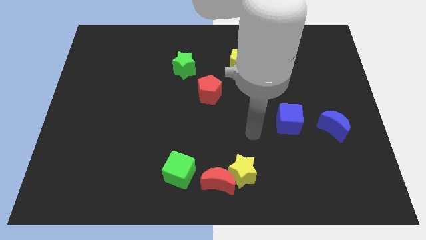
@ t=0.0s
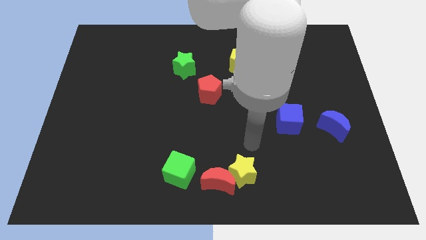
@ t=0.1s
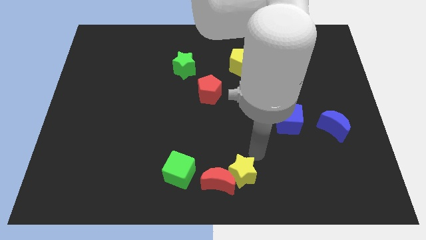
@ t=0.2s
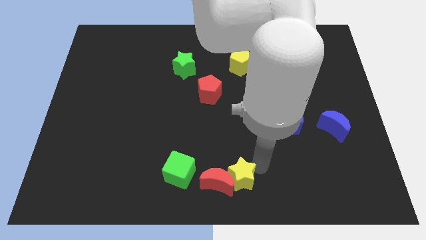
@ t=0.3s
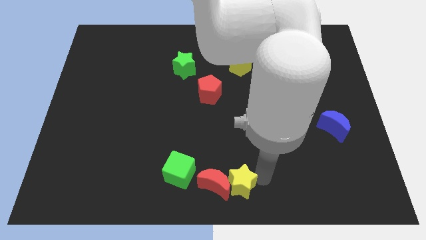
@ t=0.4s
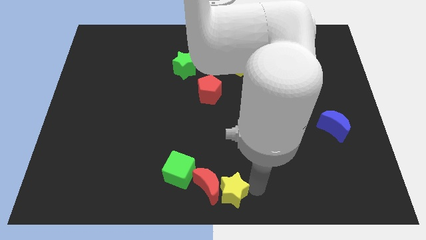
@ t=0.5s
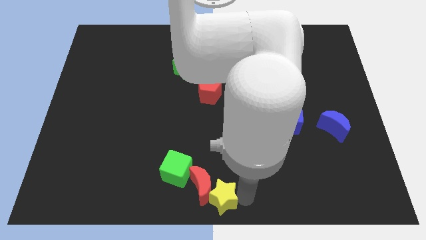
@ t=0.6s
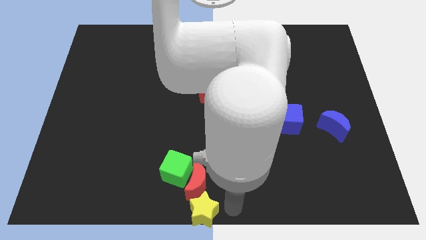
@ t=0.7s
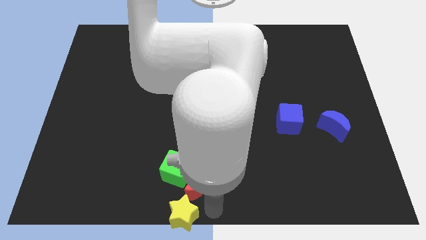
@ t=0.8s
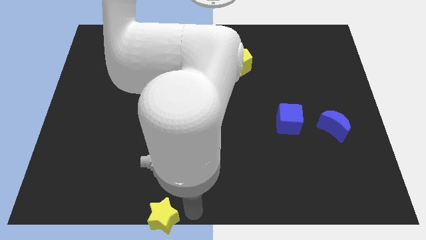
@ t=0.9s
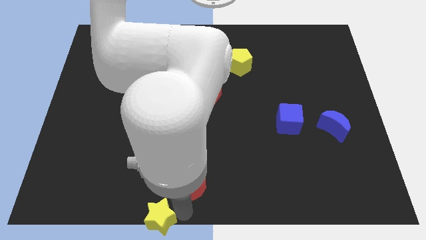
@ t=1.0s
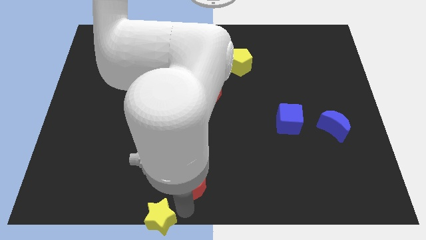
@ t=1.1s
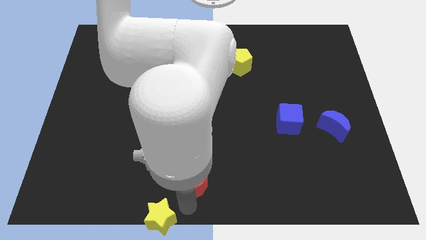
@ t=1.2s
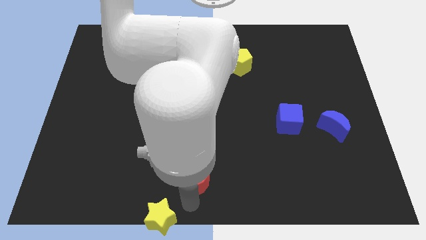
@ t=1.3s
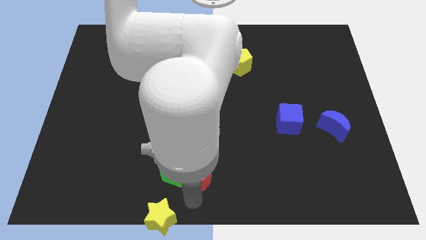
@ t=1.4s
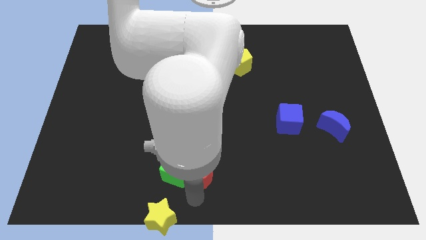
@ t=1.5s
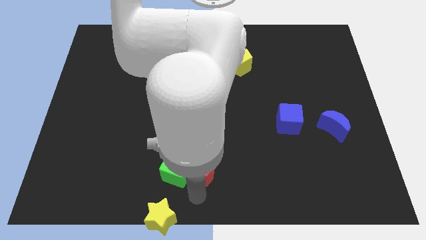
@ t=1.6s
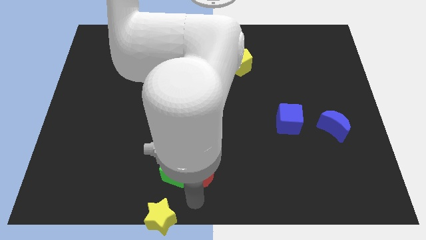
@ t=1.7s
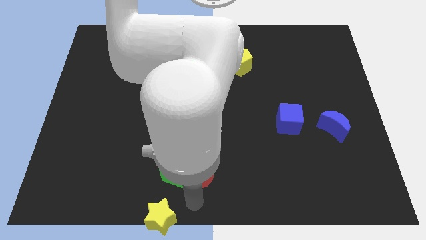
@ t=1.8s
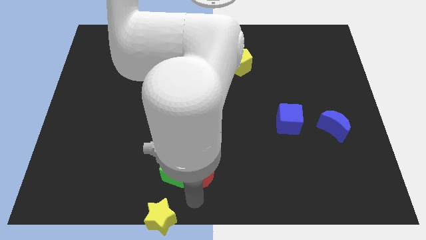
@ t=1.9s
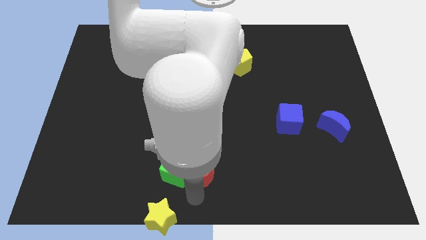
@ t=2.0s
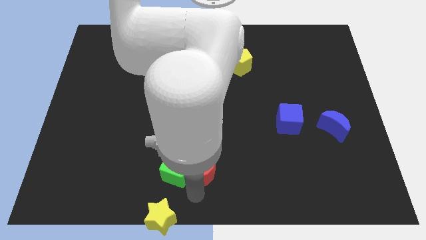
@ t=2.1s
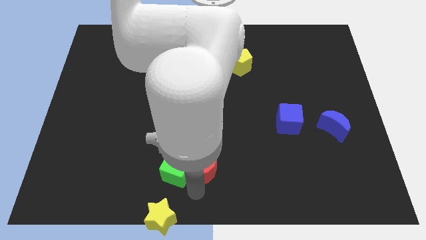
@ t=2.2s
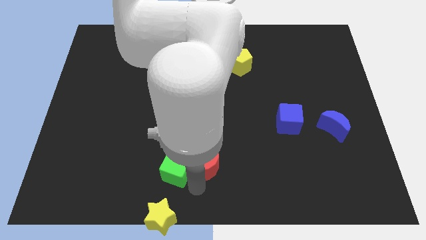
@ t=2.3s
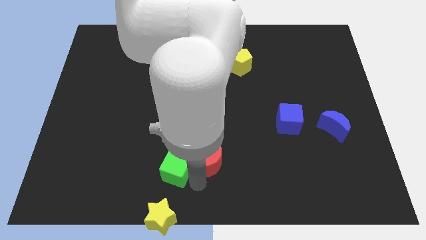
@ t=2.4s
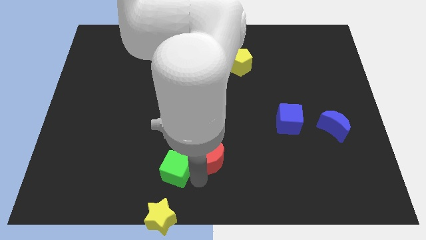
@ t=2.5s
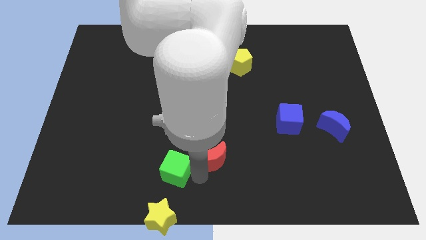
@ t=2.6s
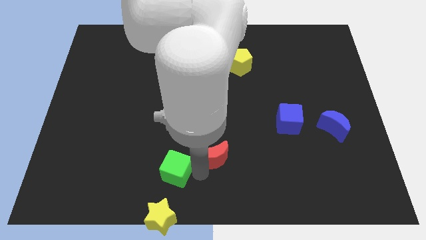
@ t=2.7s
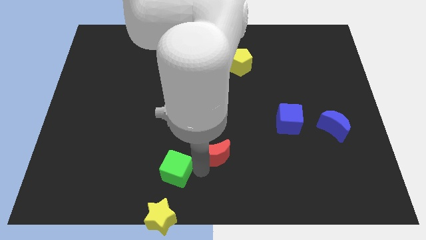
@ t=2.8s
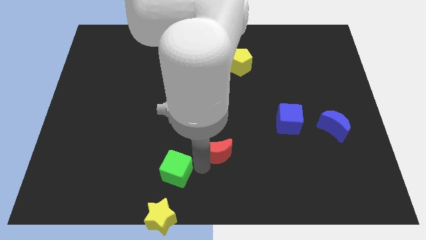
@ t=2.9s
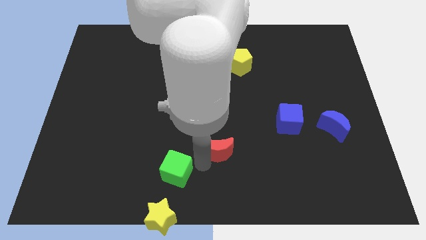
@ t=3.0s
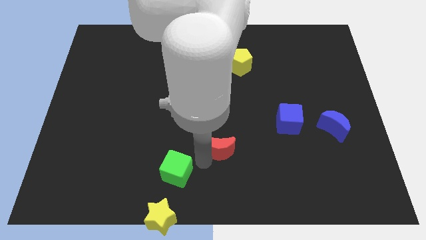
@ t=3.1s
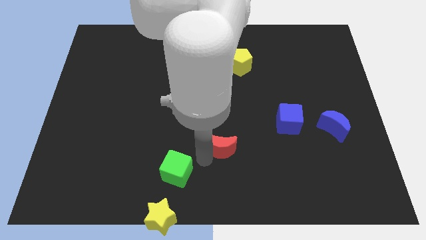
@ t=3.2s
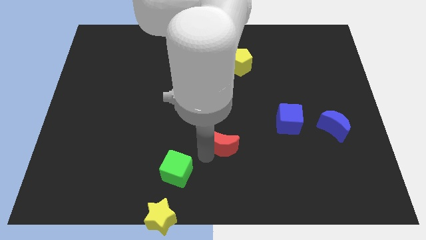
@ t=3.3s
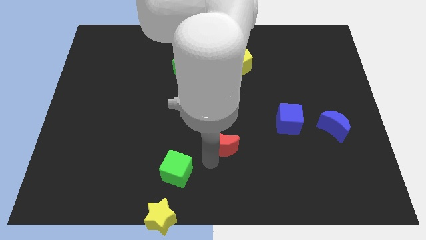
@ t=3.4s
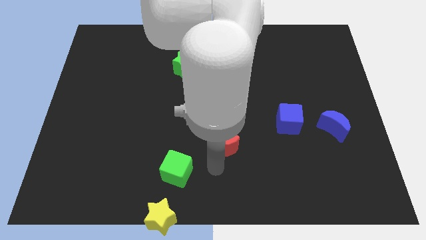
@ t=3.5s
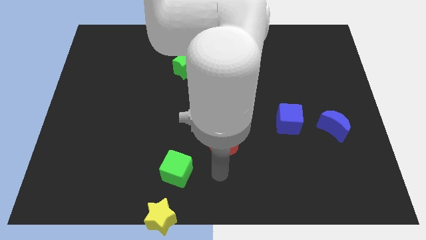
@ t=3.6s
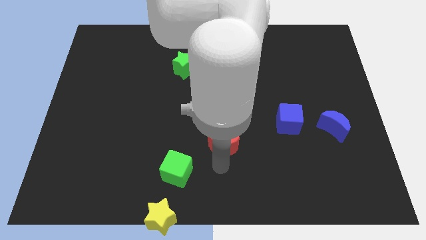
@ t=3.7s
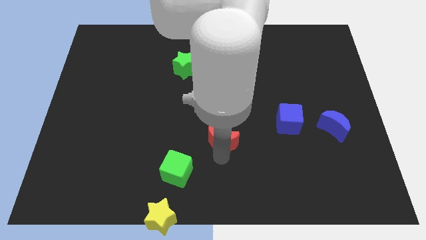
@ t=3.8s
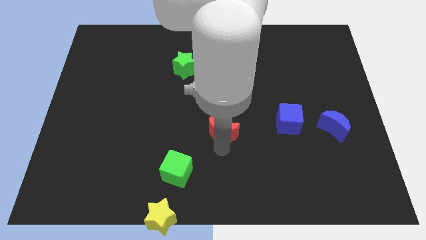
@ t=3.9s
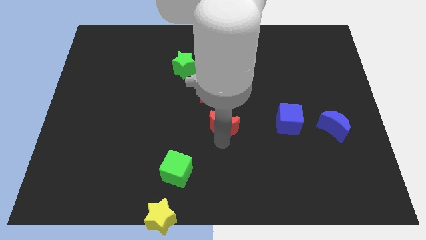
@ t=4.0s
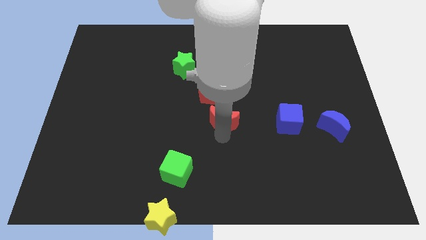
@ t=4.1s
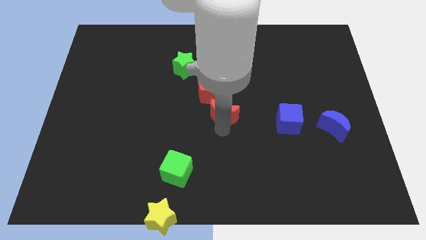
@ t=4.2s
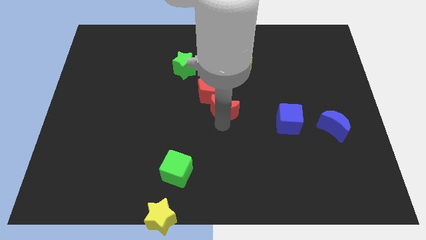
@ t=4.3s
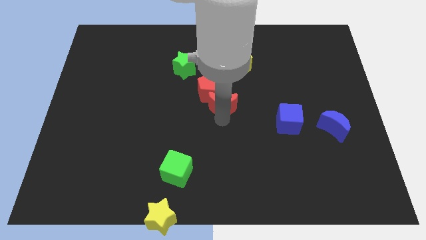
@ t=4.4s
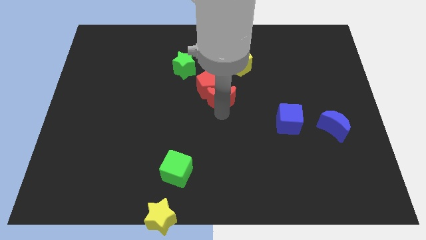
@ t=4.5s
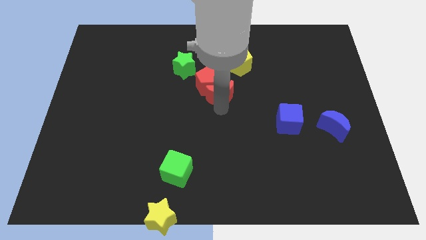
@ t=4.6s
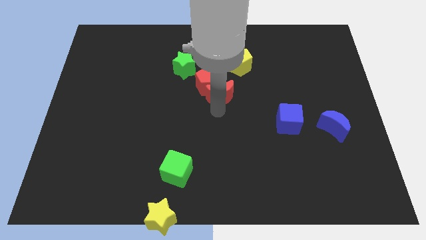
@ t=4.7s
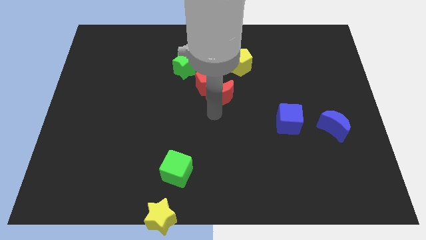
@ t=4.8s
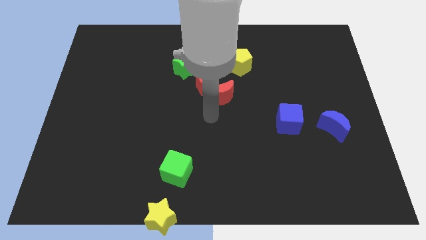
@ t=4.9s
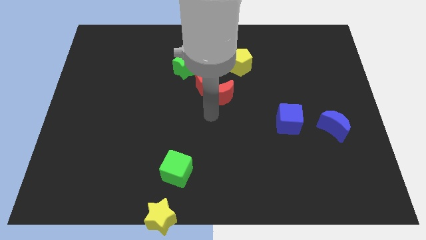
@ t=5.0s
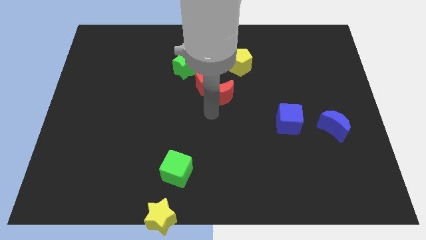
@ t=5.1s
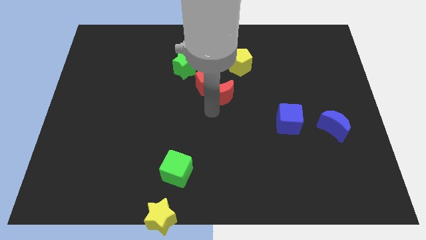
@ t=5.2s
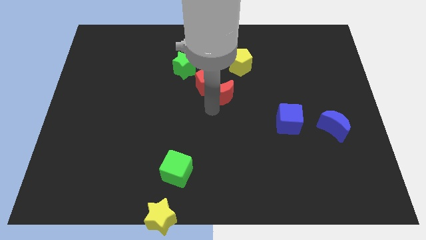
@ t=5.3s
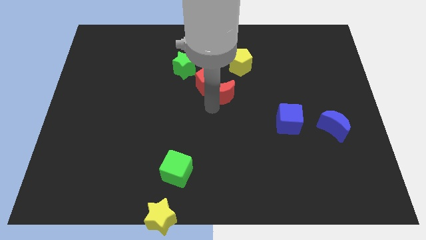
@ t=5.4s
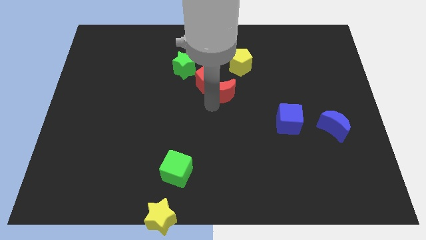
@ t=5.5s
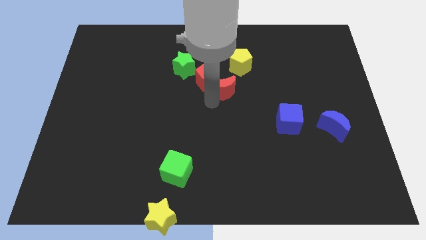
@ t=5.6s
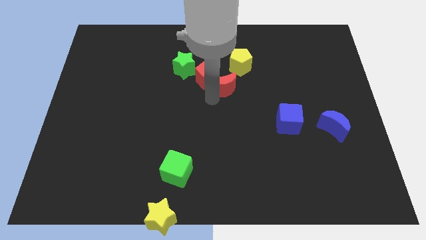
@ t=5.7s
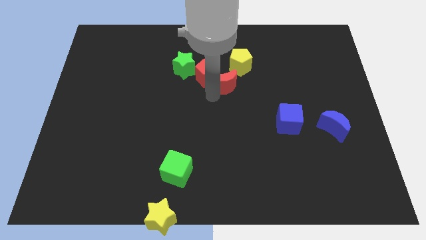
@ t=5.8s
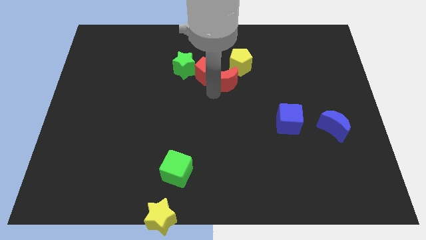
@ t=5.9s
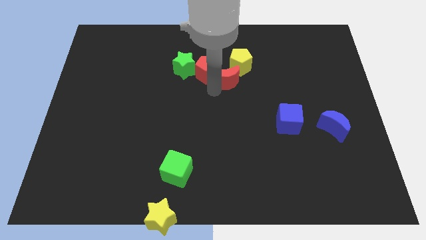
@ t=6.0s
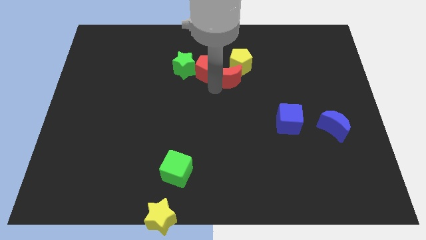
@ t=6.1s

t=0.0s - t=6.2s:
move the red moon next to the yellow pentagon

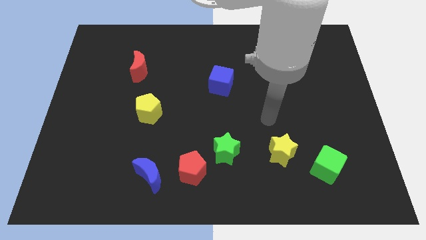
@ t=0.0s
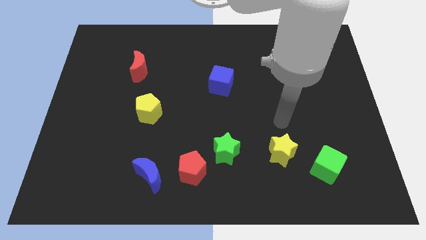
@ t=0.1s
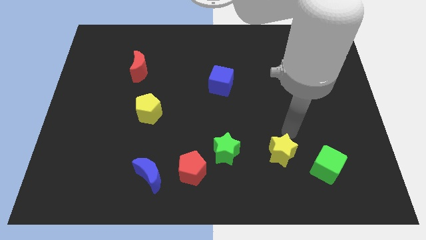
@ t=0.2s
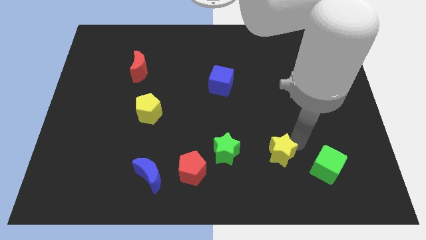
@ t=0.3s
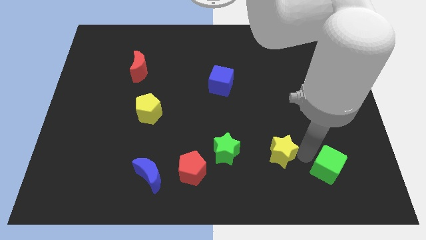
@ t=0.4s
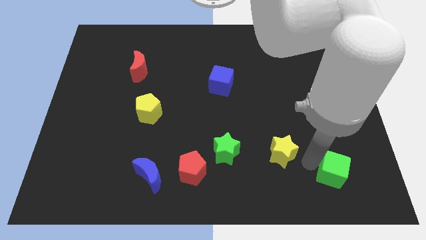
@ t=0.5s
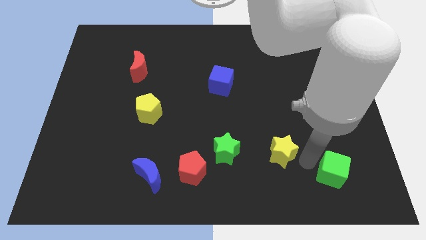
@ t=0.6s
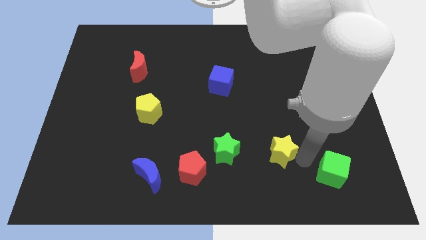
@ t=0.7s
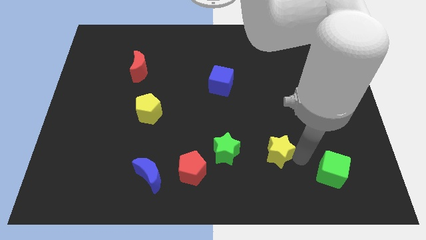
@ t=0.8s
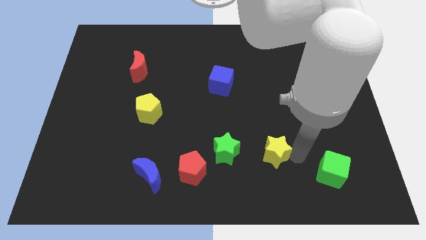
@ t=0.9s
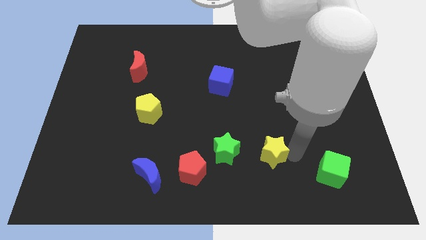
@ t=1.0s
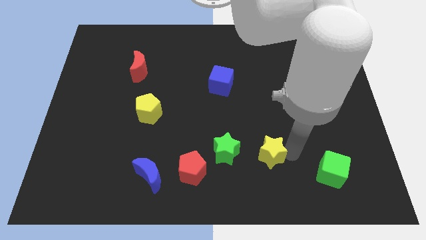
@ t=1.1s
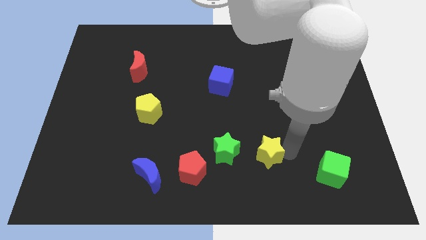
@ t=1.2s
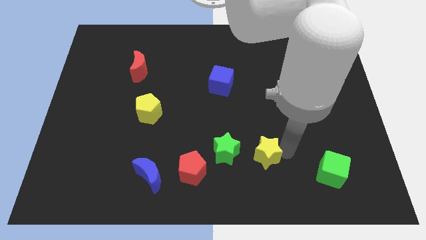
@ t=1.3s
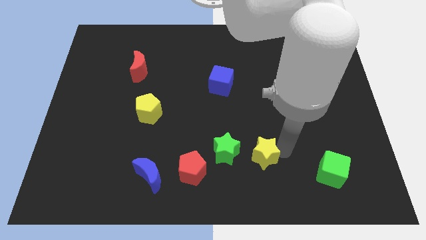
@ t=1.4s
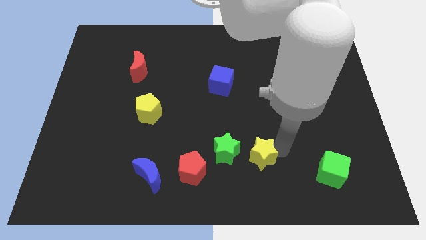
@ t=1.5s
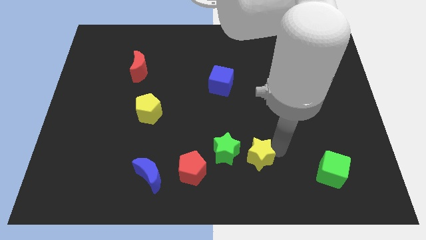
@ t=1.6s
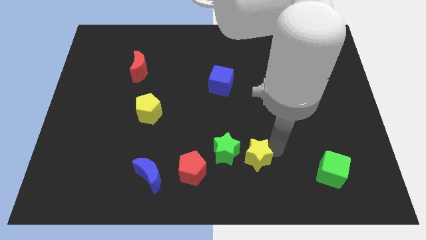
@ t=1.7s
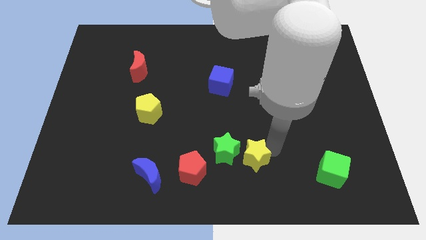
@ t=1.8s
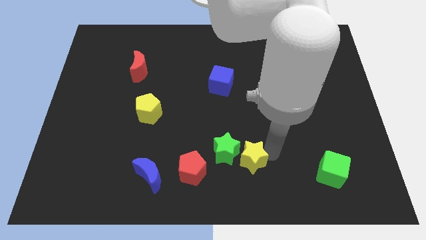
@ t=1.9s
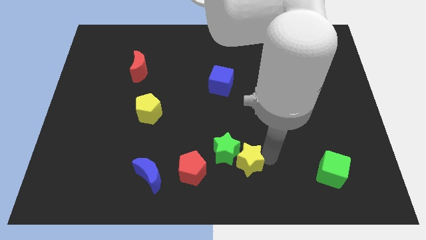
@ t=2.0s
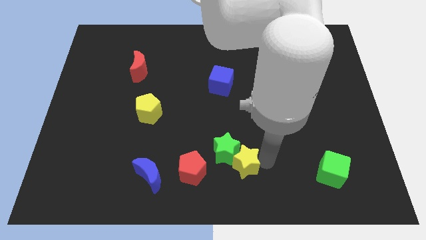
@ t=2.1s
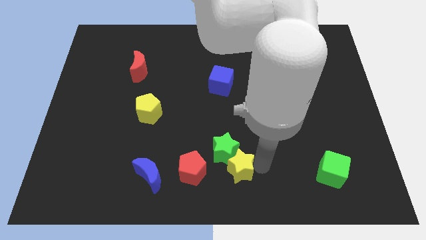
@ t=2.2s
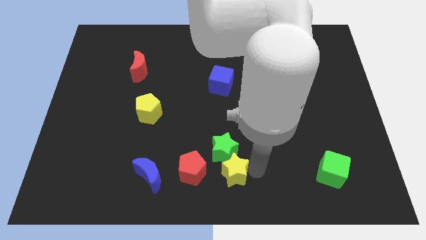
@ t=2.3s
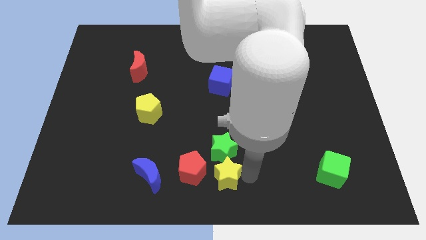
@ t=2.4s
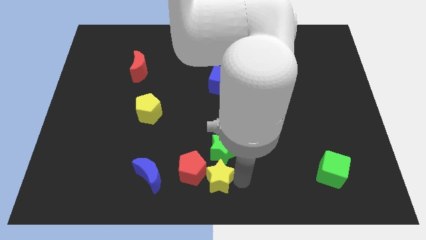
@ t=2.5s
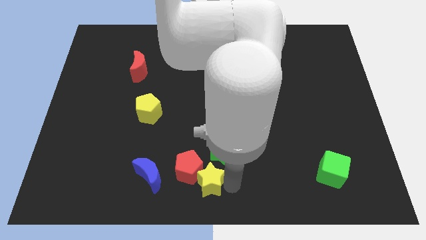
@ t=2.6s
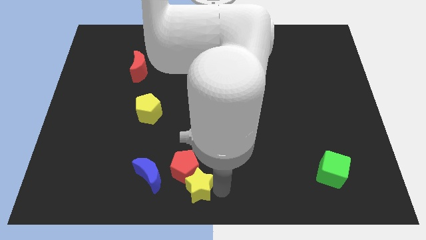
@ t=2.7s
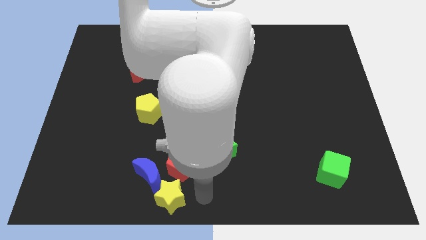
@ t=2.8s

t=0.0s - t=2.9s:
push the yellow star close to the blue moon
